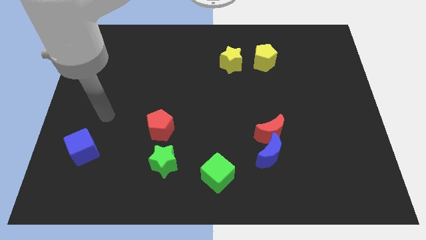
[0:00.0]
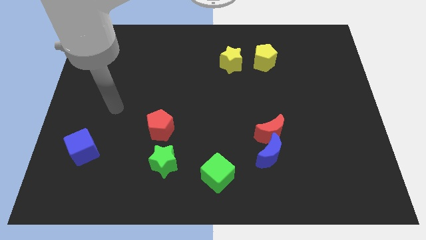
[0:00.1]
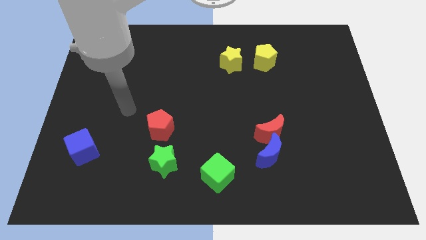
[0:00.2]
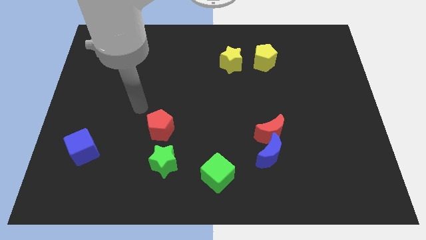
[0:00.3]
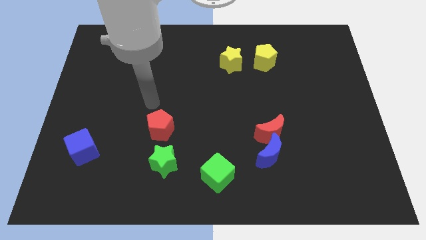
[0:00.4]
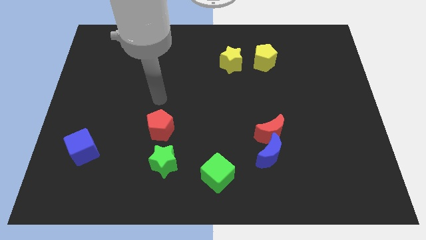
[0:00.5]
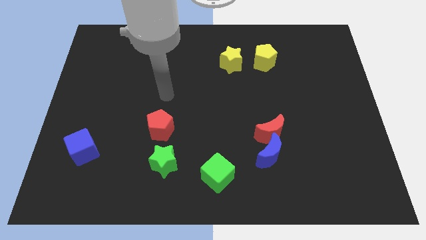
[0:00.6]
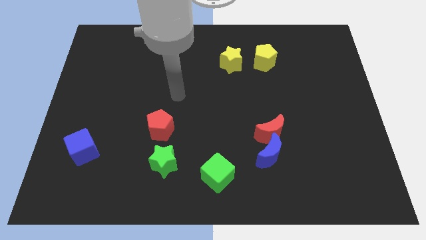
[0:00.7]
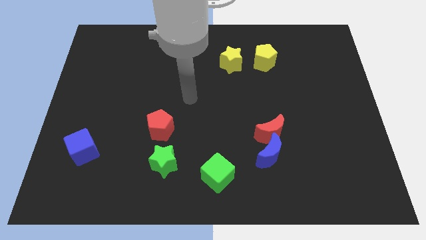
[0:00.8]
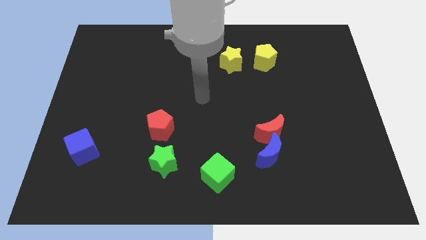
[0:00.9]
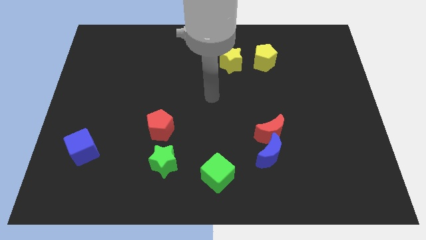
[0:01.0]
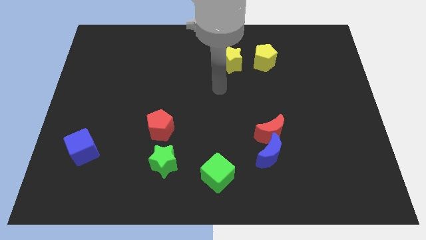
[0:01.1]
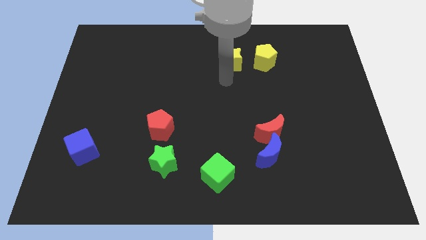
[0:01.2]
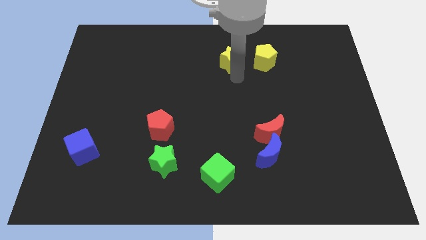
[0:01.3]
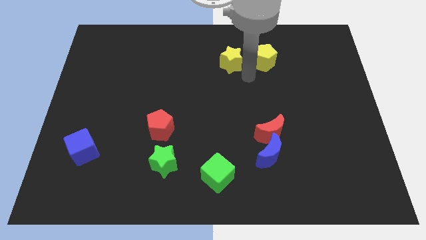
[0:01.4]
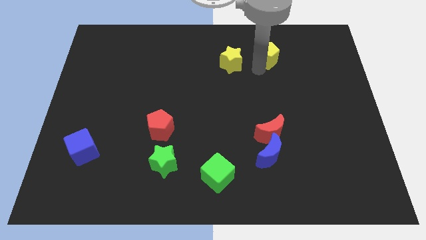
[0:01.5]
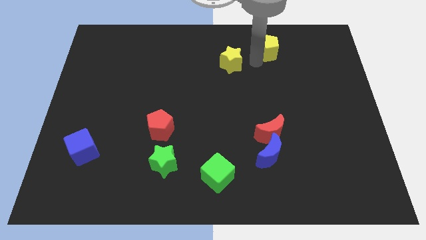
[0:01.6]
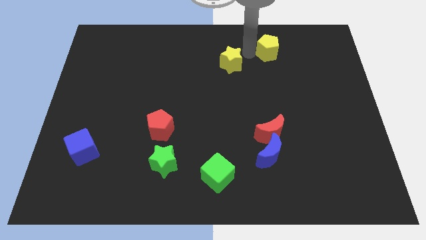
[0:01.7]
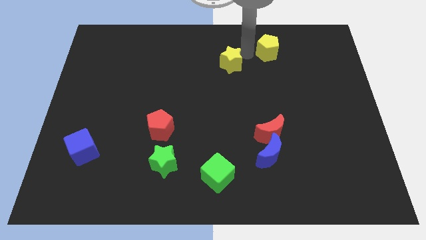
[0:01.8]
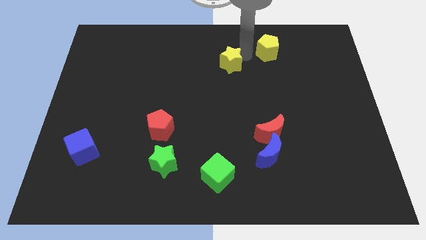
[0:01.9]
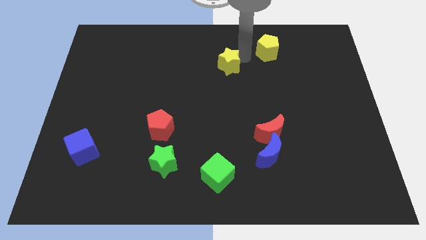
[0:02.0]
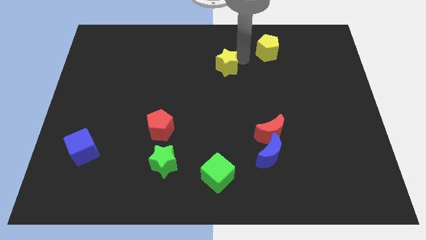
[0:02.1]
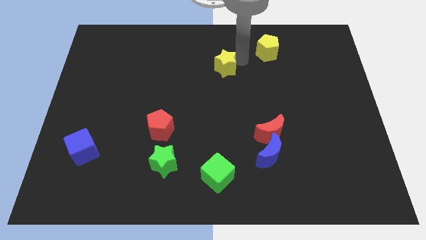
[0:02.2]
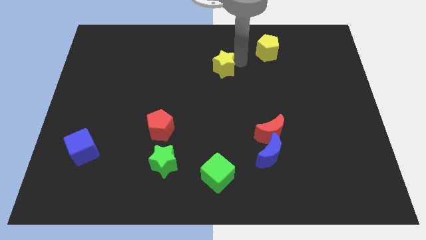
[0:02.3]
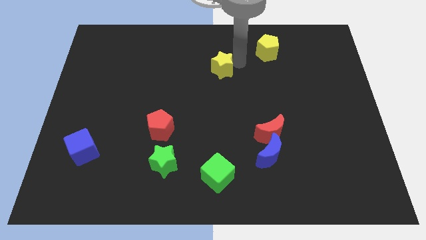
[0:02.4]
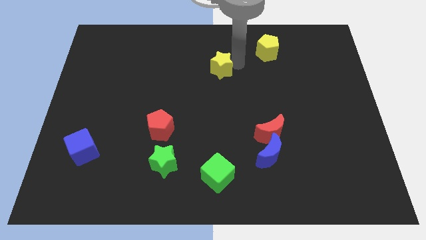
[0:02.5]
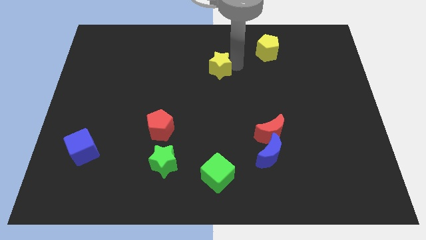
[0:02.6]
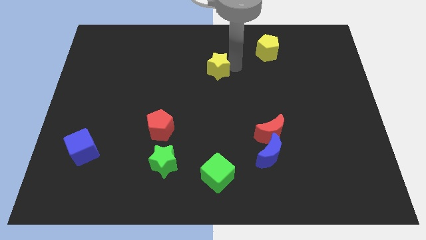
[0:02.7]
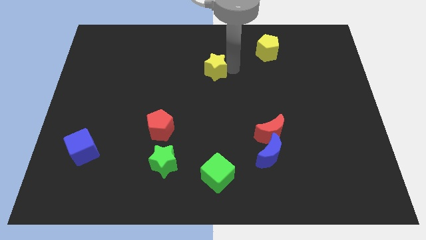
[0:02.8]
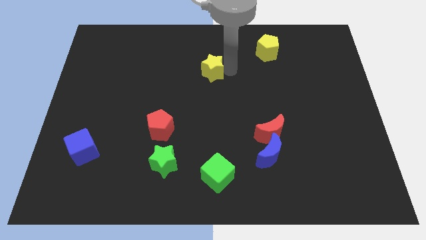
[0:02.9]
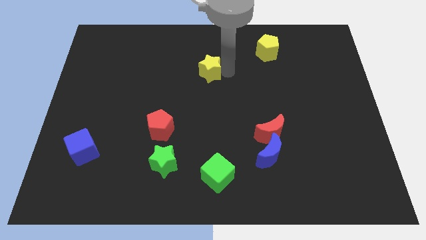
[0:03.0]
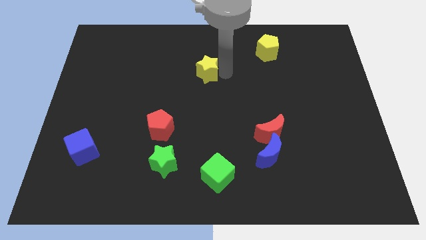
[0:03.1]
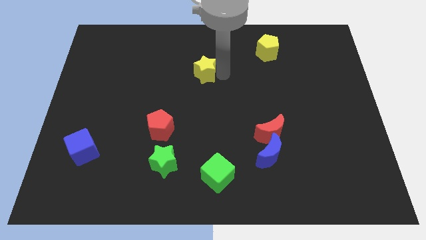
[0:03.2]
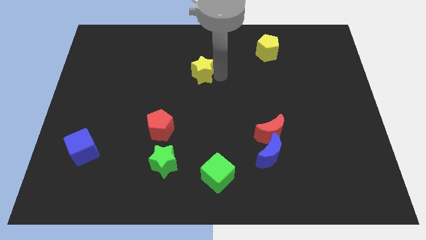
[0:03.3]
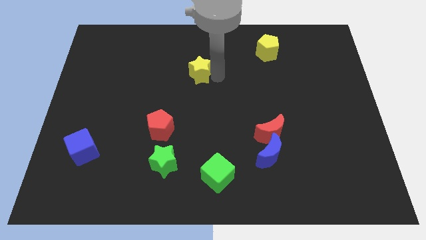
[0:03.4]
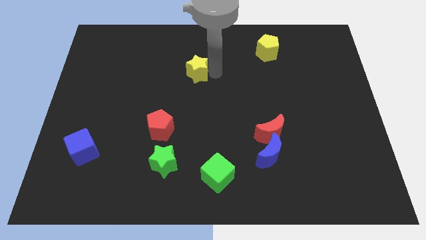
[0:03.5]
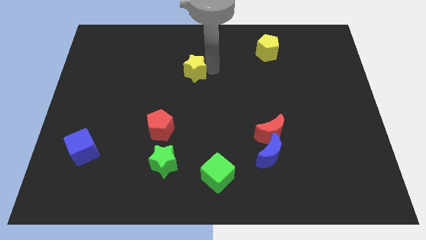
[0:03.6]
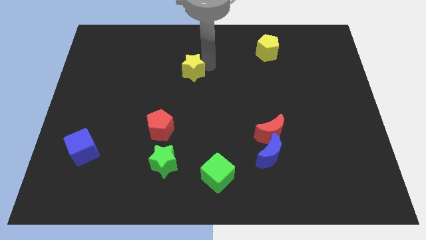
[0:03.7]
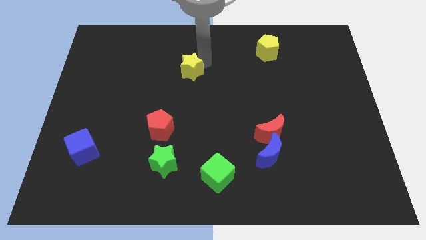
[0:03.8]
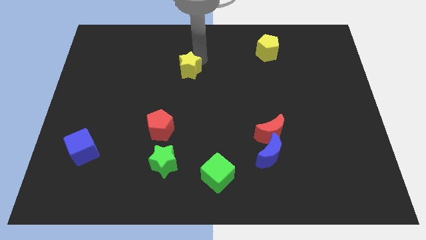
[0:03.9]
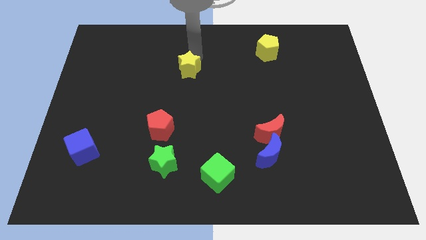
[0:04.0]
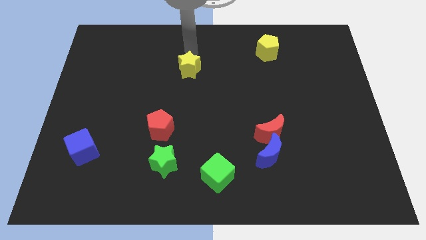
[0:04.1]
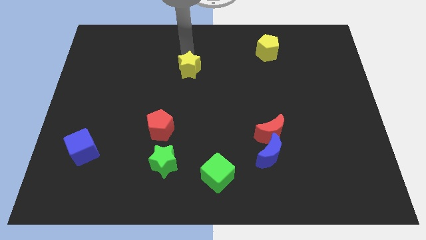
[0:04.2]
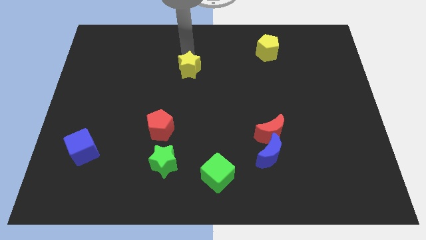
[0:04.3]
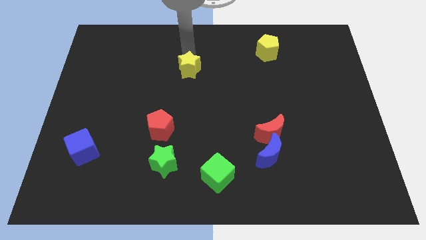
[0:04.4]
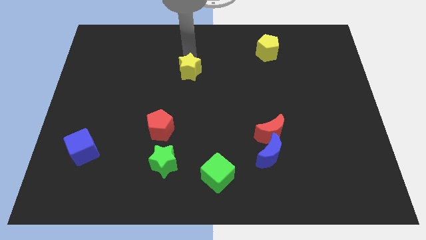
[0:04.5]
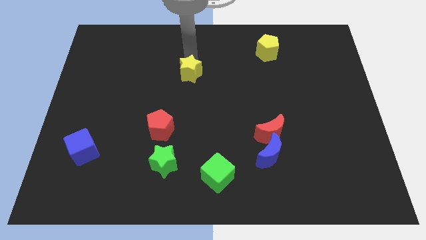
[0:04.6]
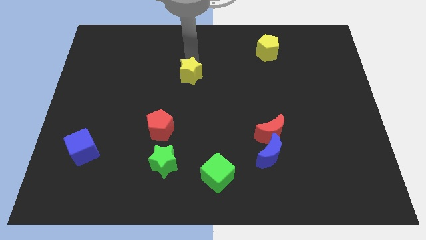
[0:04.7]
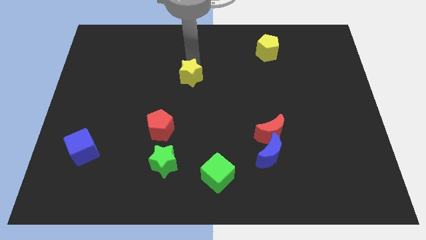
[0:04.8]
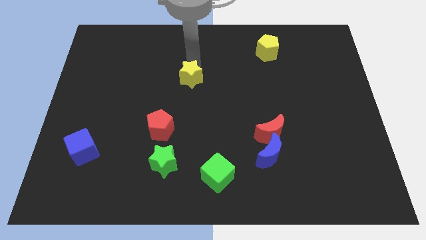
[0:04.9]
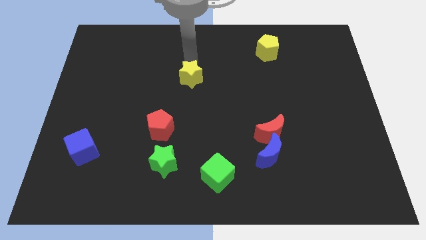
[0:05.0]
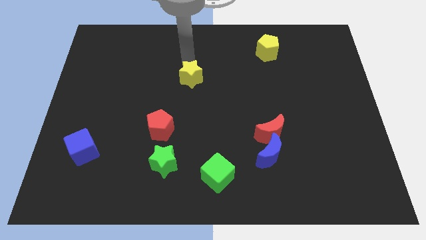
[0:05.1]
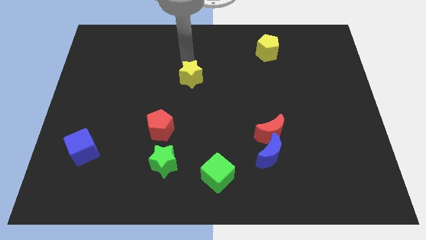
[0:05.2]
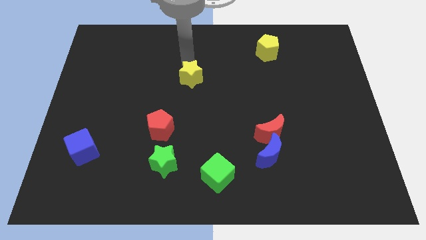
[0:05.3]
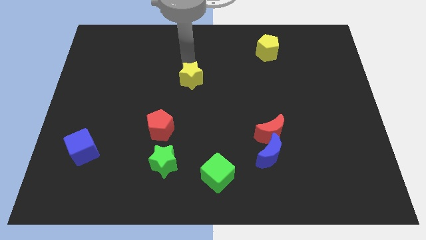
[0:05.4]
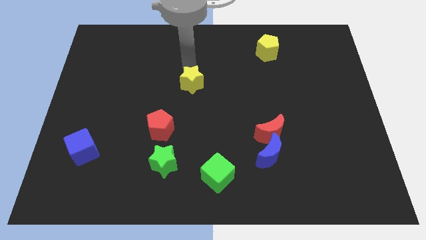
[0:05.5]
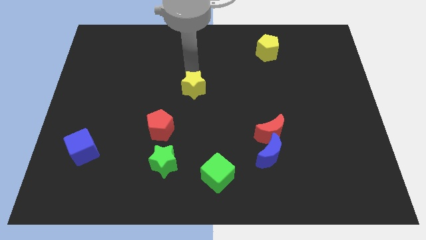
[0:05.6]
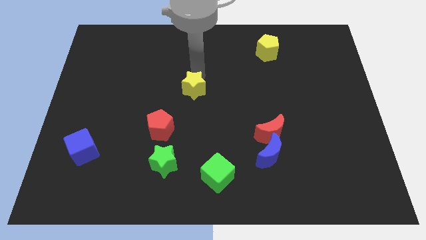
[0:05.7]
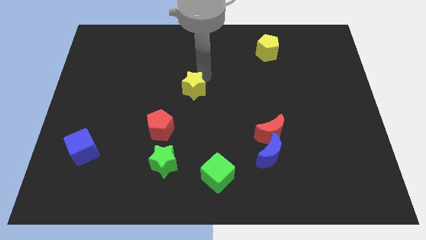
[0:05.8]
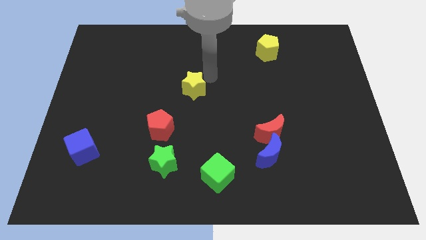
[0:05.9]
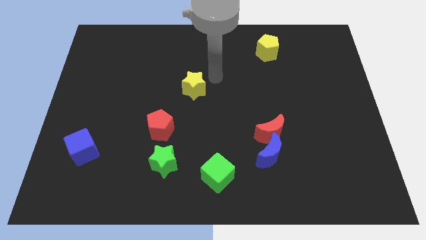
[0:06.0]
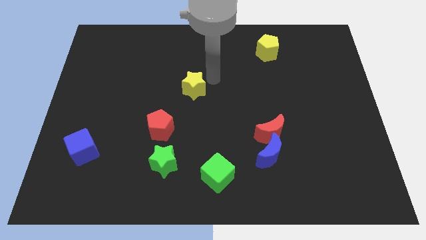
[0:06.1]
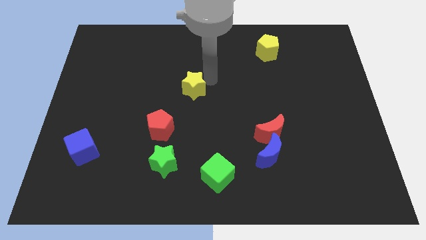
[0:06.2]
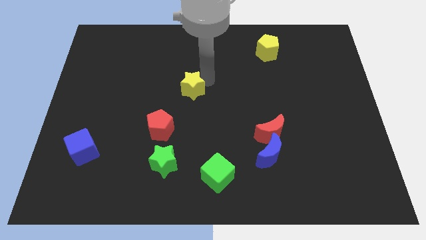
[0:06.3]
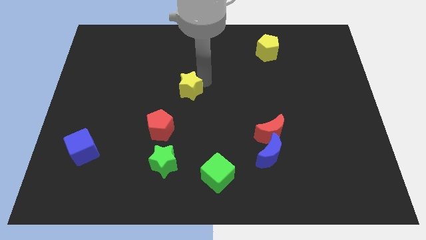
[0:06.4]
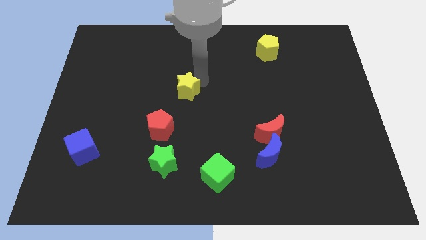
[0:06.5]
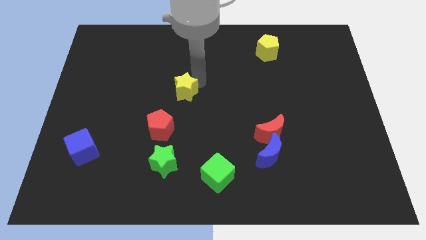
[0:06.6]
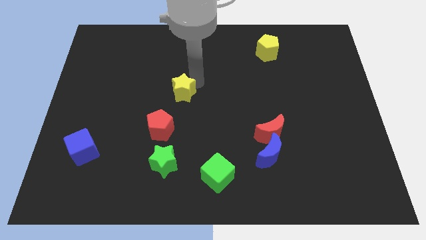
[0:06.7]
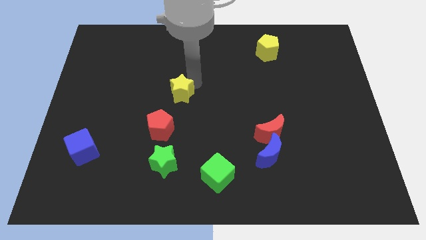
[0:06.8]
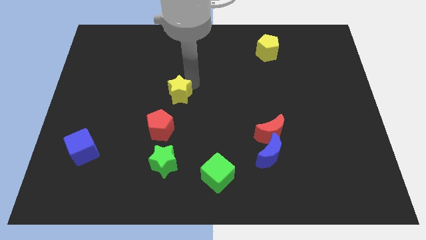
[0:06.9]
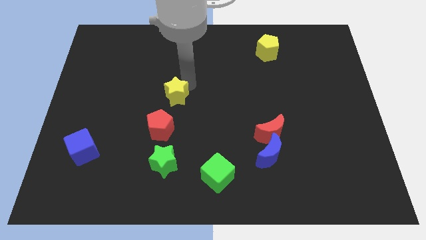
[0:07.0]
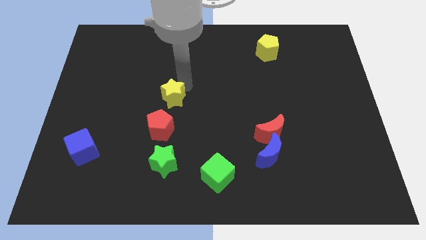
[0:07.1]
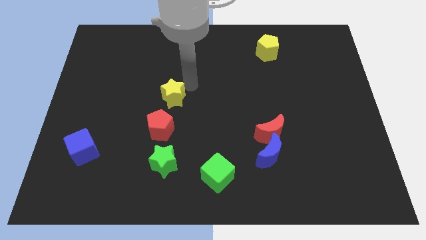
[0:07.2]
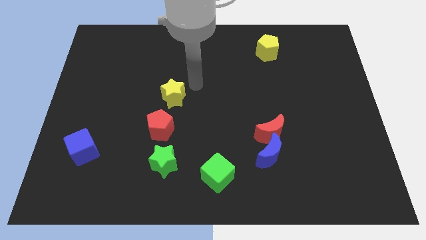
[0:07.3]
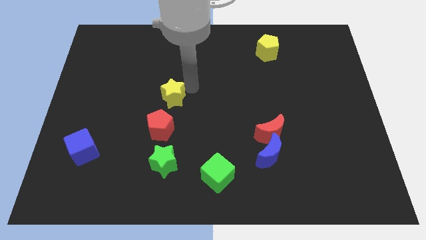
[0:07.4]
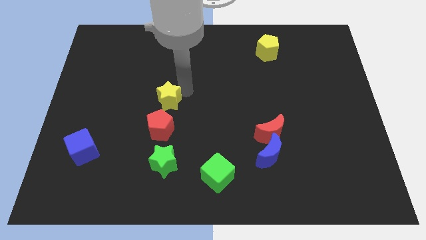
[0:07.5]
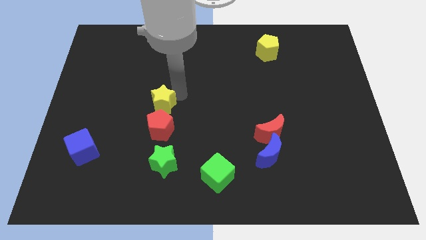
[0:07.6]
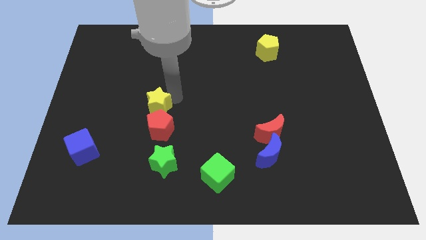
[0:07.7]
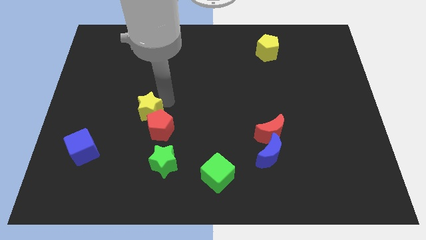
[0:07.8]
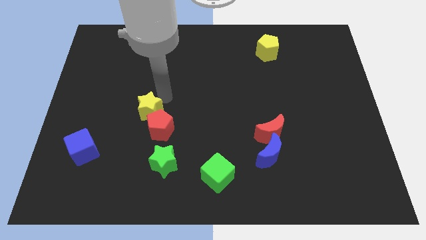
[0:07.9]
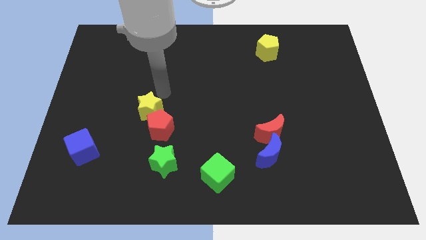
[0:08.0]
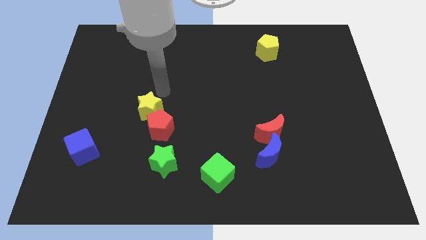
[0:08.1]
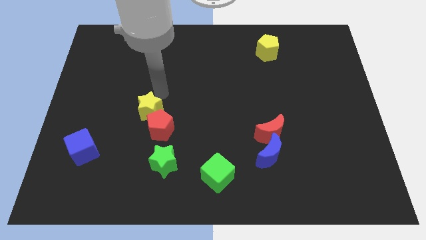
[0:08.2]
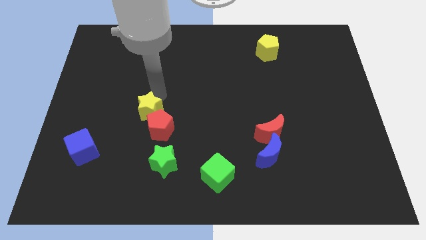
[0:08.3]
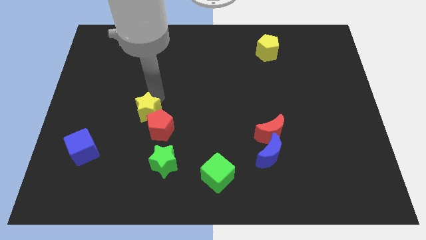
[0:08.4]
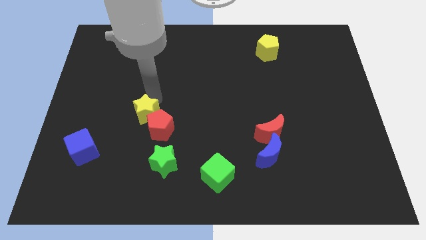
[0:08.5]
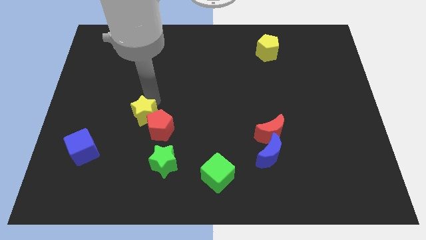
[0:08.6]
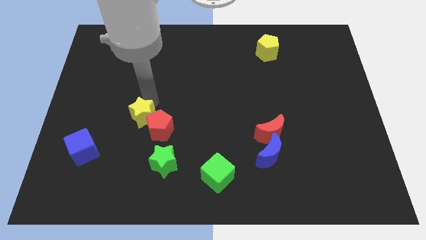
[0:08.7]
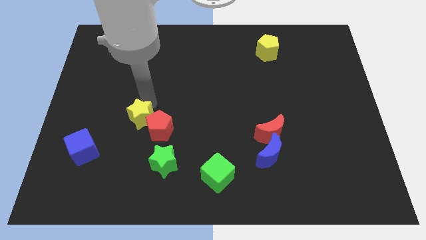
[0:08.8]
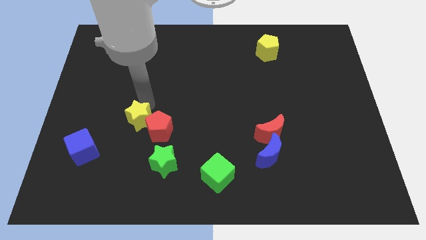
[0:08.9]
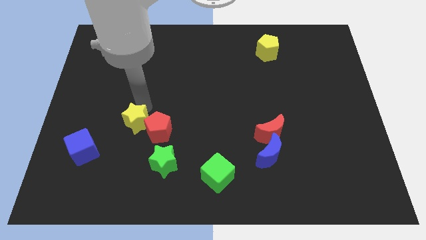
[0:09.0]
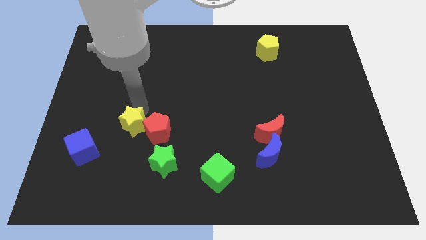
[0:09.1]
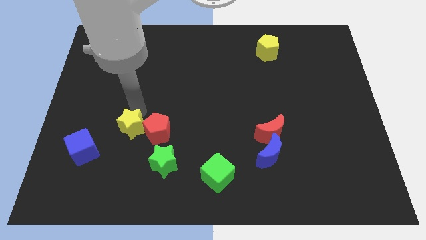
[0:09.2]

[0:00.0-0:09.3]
move the yellow star to the bottom left side of the red pentagon
